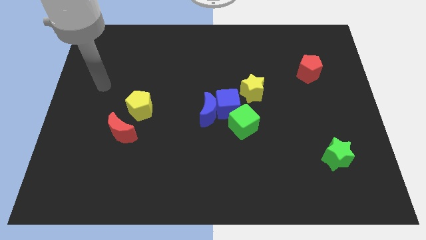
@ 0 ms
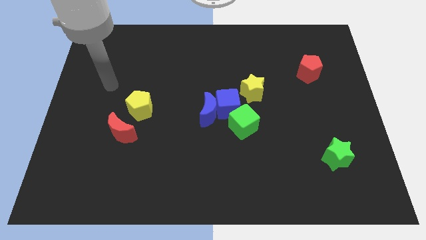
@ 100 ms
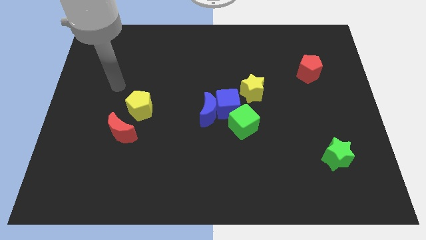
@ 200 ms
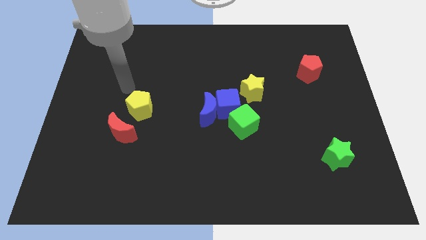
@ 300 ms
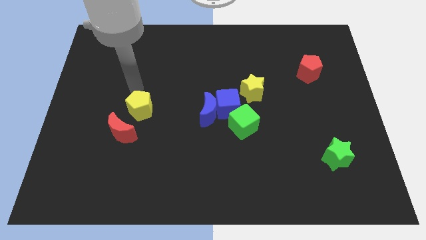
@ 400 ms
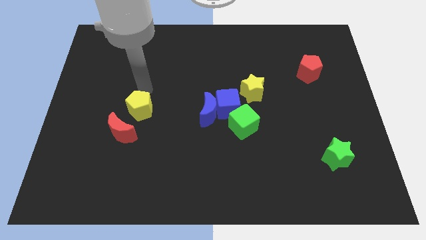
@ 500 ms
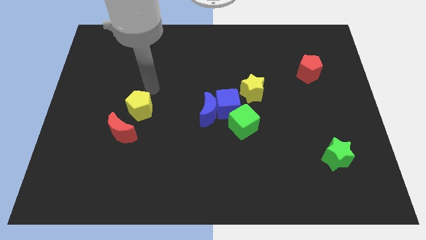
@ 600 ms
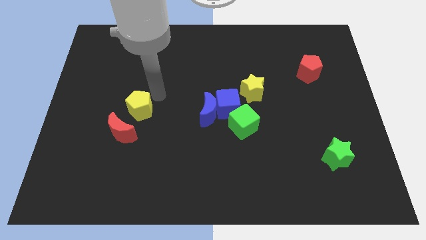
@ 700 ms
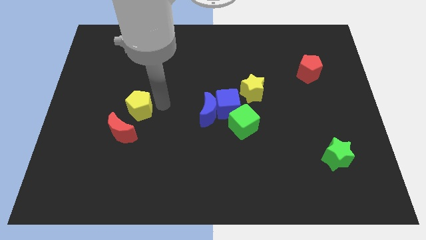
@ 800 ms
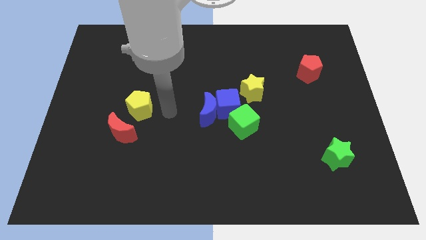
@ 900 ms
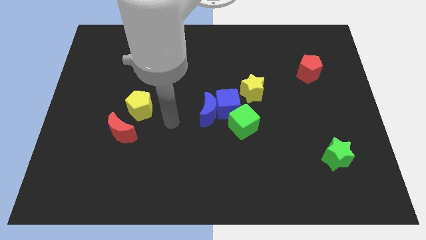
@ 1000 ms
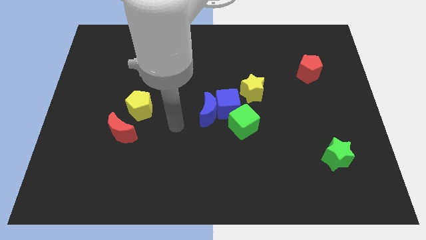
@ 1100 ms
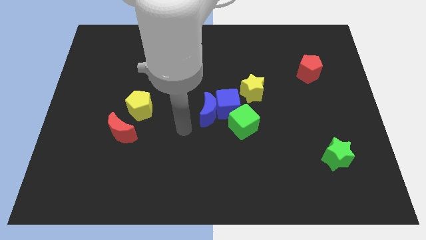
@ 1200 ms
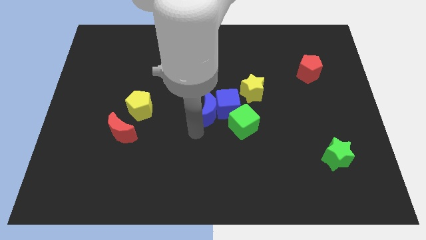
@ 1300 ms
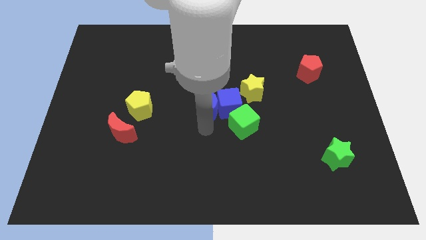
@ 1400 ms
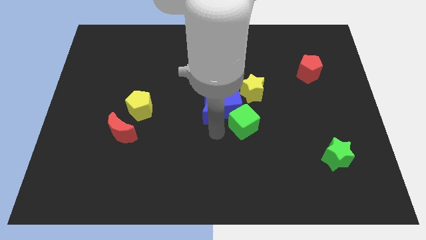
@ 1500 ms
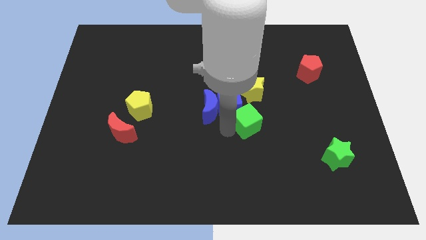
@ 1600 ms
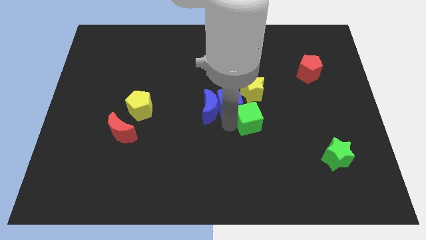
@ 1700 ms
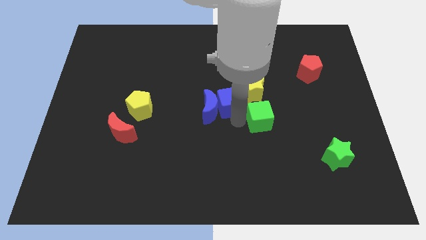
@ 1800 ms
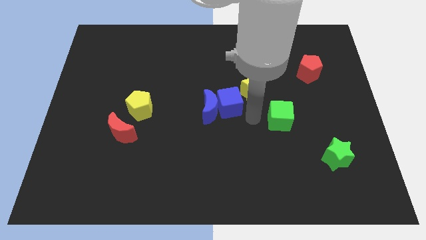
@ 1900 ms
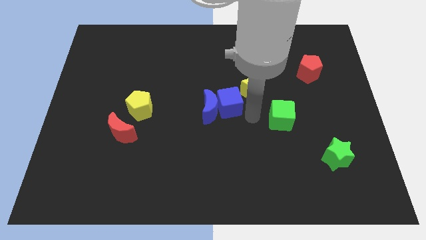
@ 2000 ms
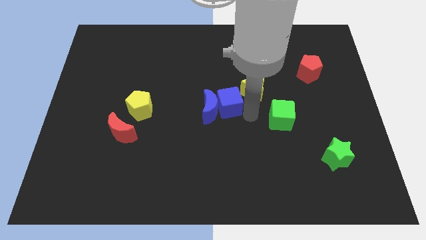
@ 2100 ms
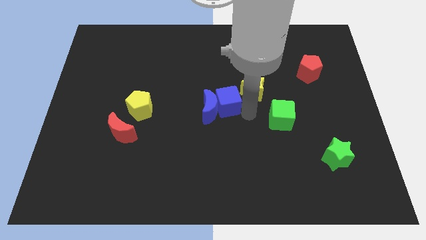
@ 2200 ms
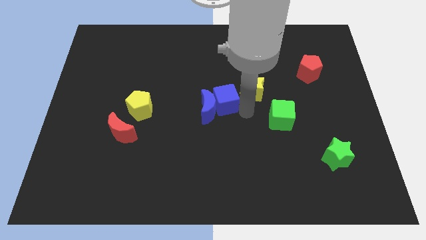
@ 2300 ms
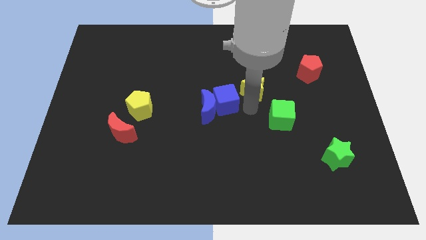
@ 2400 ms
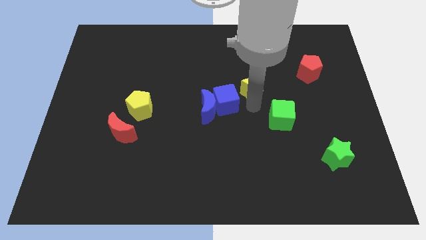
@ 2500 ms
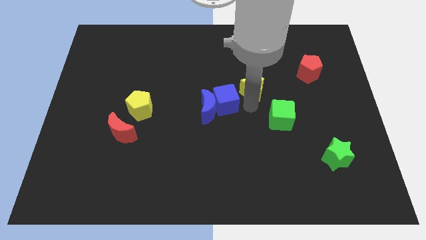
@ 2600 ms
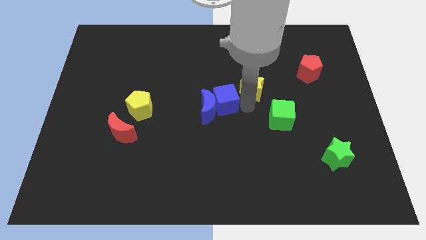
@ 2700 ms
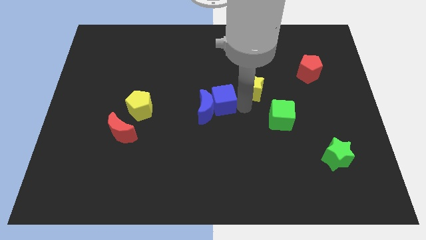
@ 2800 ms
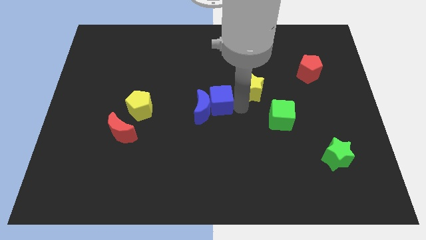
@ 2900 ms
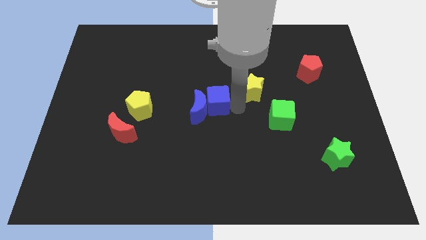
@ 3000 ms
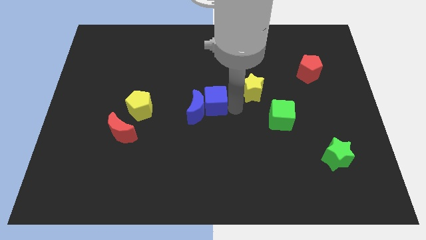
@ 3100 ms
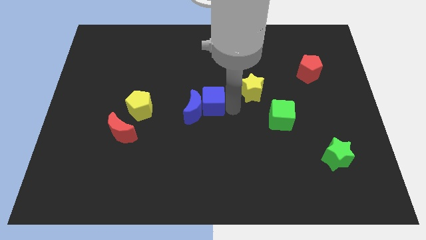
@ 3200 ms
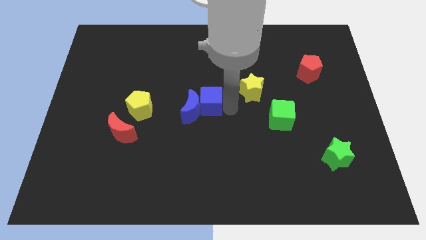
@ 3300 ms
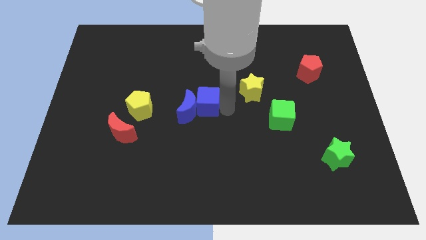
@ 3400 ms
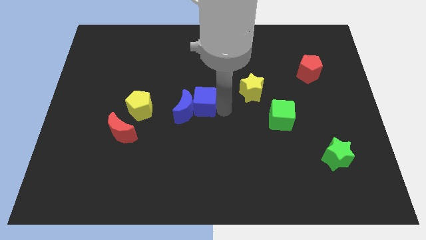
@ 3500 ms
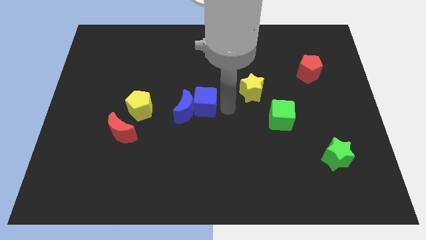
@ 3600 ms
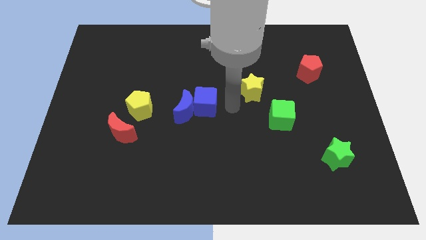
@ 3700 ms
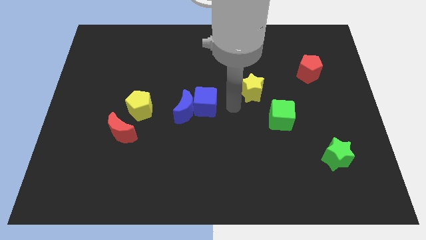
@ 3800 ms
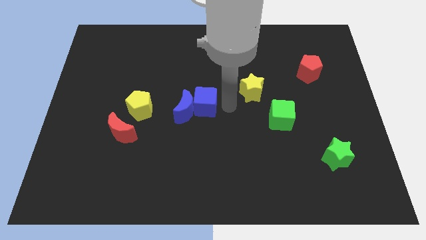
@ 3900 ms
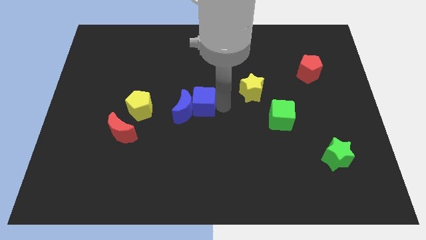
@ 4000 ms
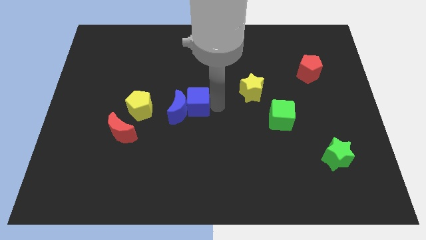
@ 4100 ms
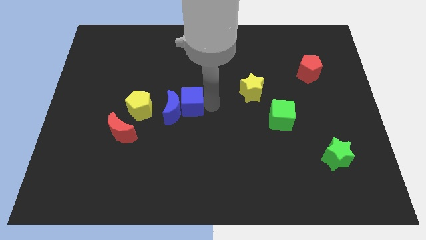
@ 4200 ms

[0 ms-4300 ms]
move the blue cube away from the blue moon, green cube, and yellow star

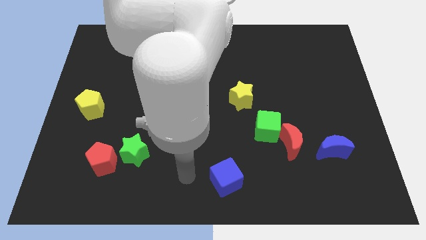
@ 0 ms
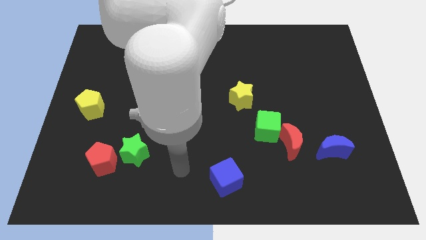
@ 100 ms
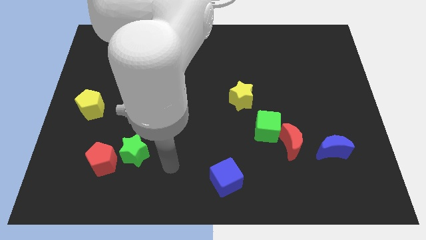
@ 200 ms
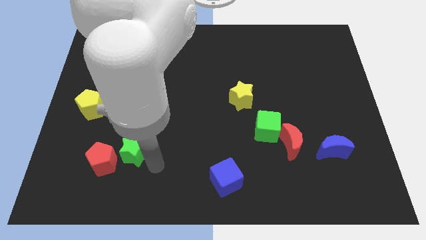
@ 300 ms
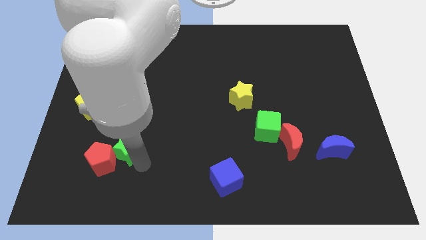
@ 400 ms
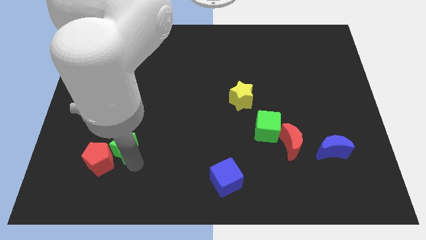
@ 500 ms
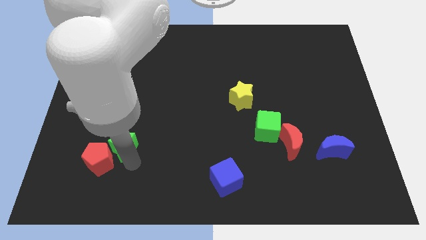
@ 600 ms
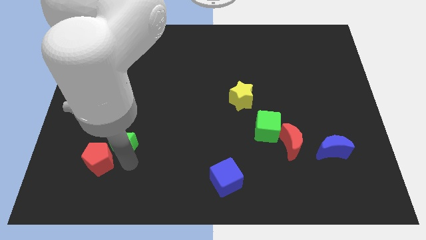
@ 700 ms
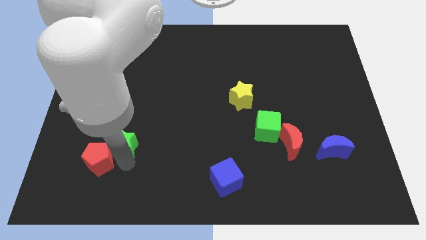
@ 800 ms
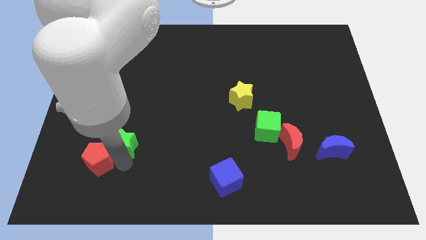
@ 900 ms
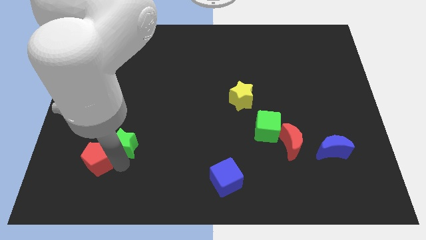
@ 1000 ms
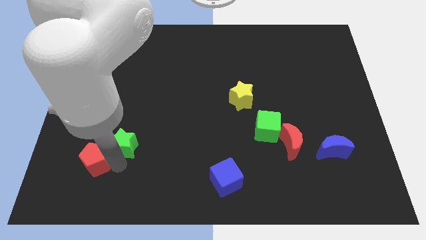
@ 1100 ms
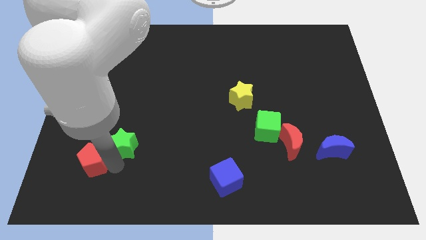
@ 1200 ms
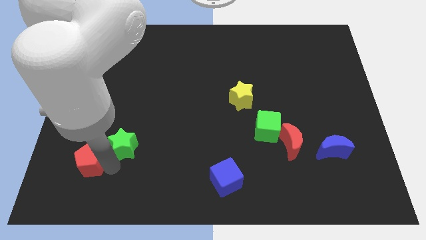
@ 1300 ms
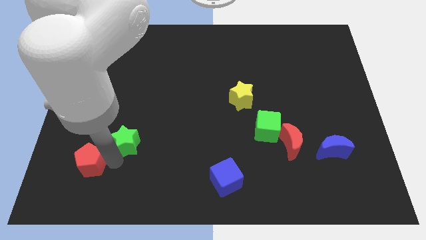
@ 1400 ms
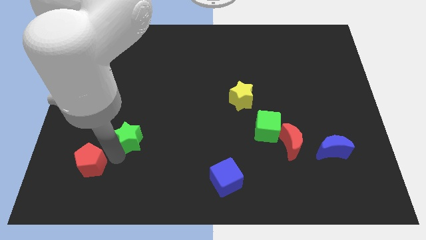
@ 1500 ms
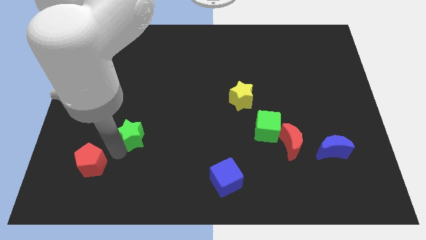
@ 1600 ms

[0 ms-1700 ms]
pull the red pentagon apart from the green star

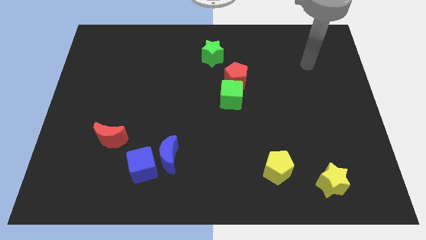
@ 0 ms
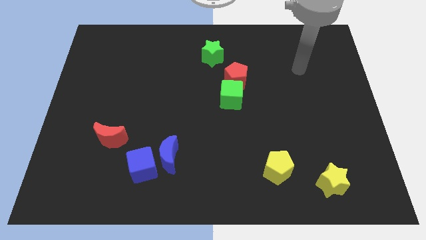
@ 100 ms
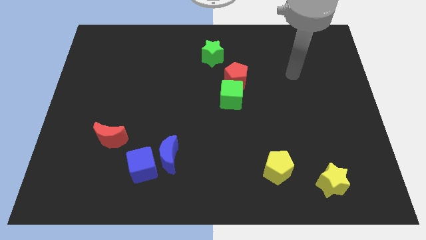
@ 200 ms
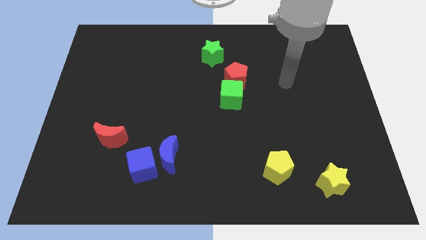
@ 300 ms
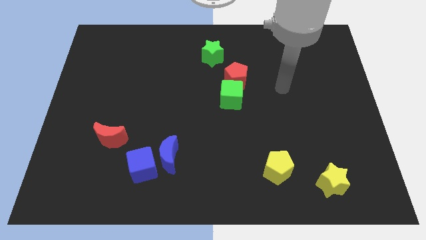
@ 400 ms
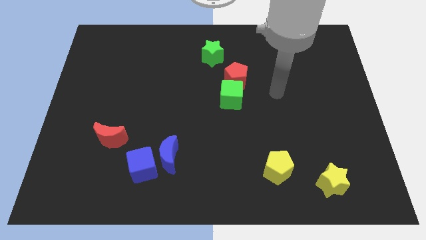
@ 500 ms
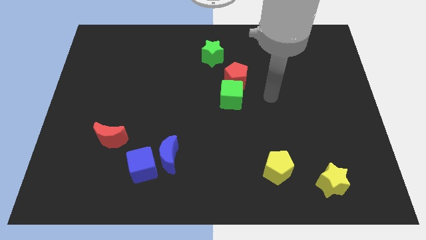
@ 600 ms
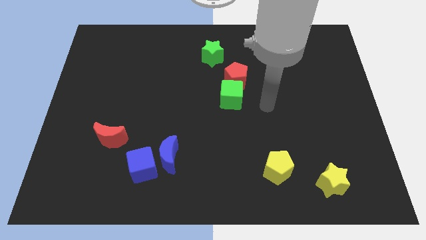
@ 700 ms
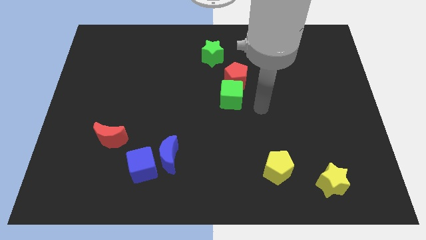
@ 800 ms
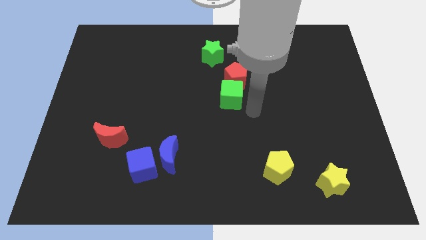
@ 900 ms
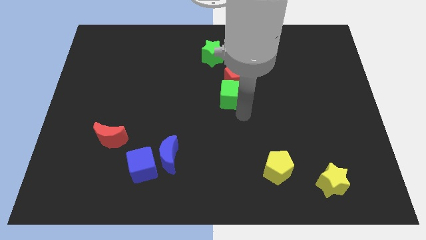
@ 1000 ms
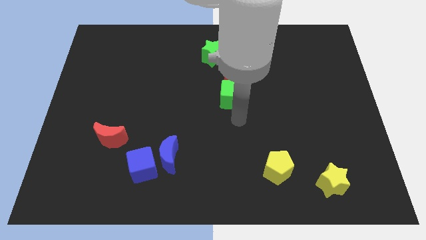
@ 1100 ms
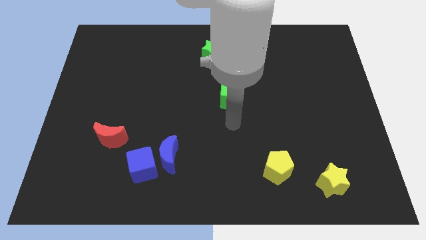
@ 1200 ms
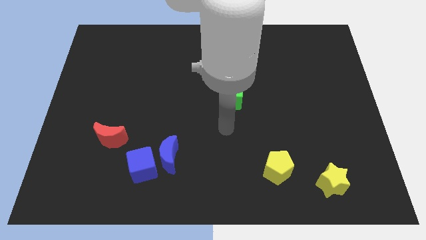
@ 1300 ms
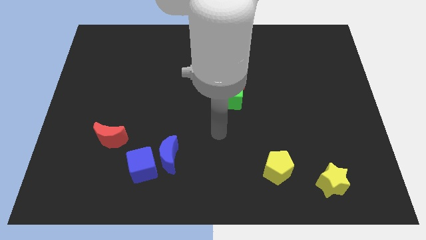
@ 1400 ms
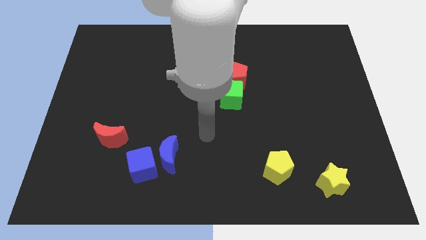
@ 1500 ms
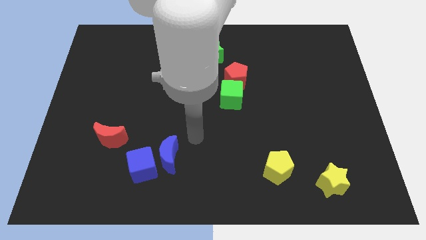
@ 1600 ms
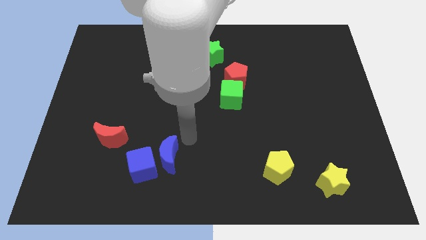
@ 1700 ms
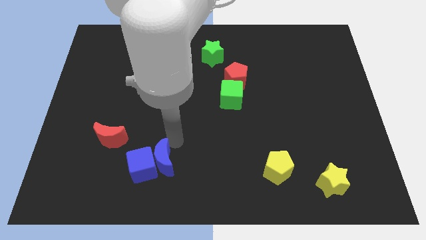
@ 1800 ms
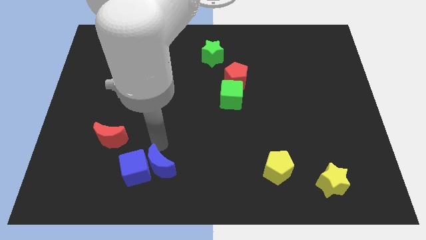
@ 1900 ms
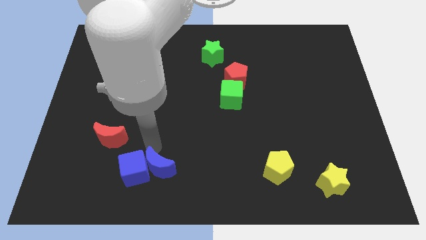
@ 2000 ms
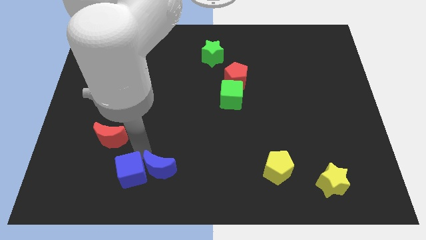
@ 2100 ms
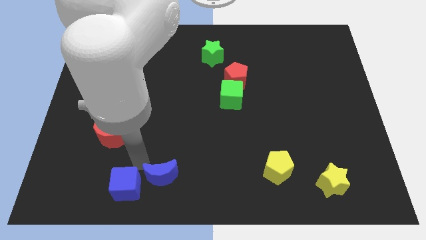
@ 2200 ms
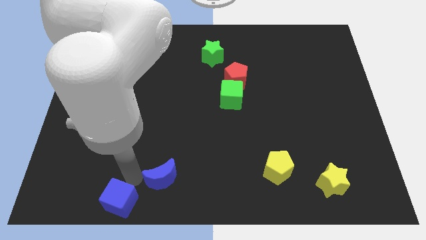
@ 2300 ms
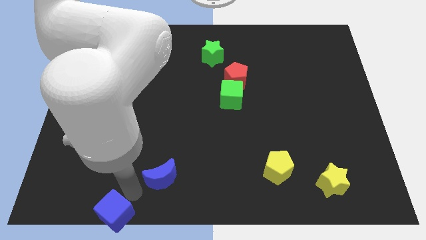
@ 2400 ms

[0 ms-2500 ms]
move the blue moon away from the blue cube

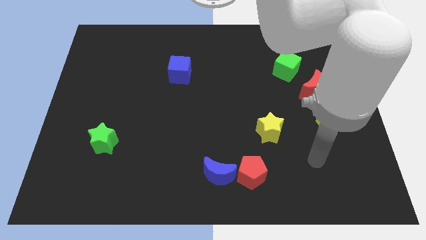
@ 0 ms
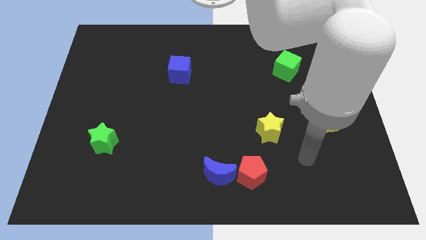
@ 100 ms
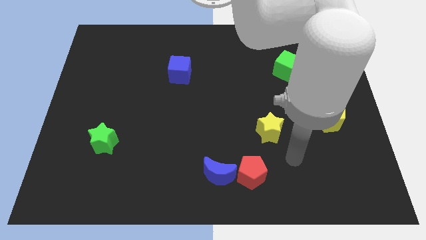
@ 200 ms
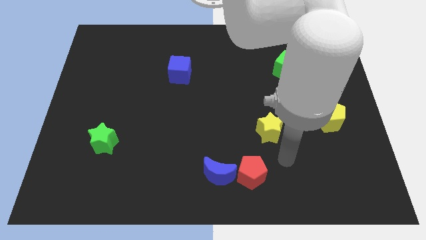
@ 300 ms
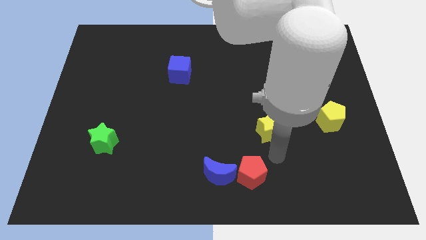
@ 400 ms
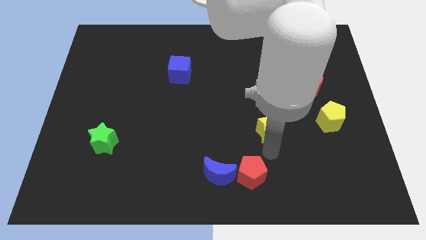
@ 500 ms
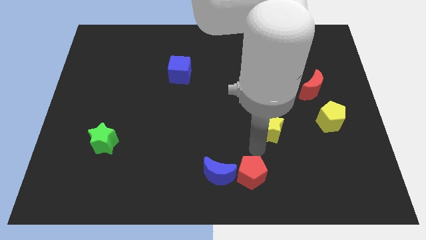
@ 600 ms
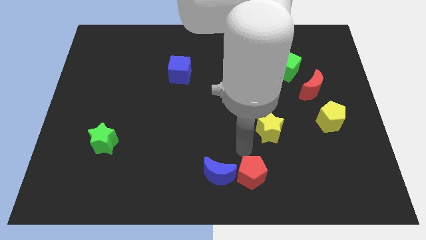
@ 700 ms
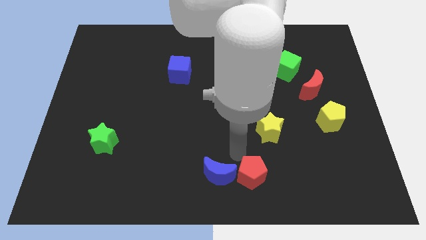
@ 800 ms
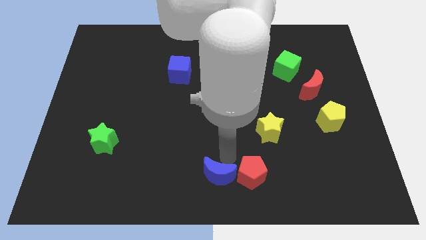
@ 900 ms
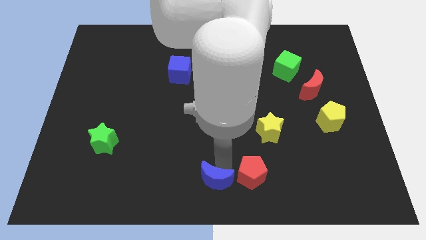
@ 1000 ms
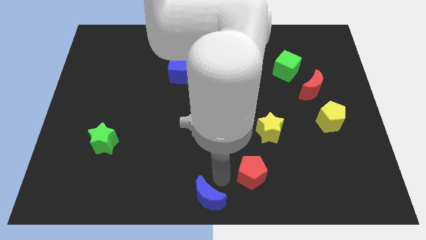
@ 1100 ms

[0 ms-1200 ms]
separate the red pentagon from the blue moon
